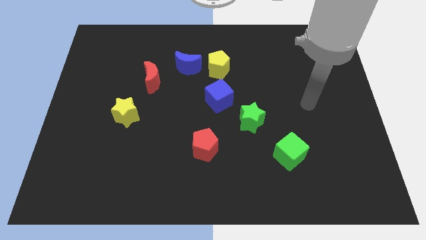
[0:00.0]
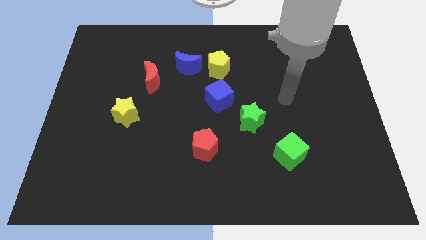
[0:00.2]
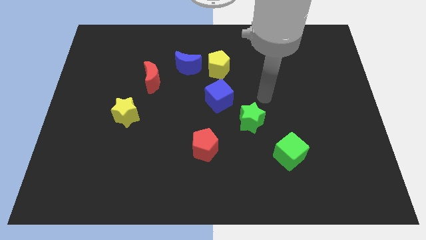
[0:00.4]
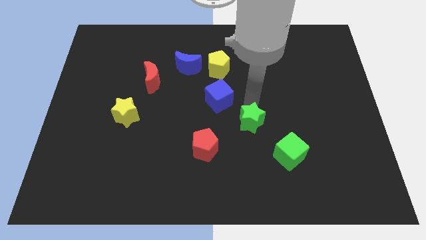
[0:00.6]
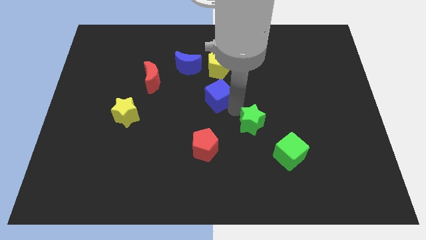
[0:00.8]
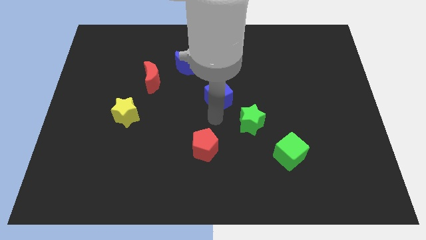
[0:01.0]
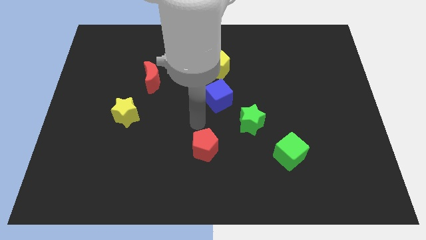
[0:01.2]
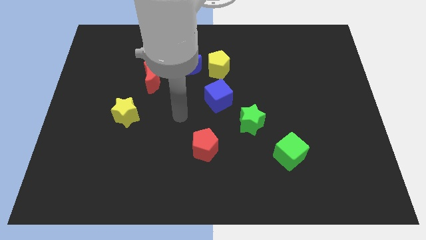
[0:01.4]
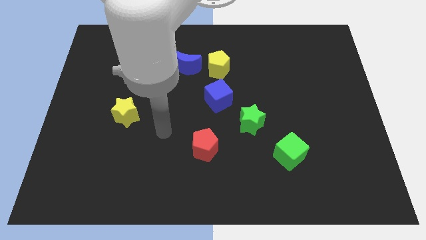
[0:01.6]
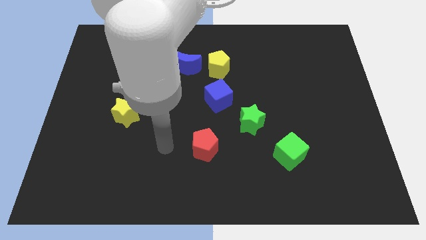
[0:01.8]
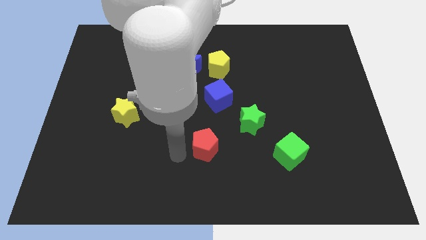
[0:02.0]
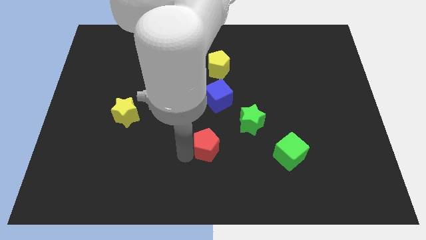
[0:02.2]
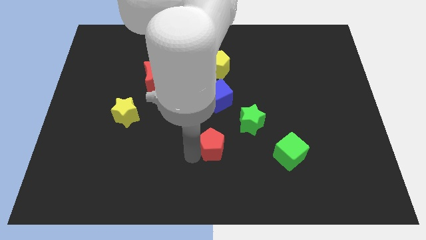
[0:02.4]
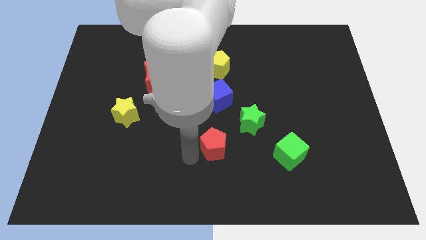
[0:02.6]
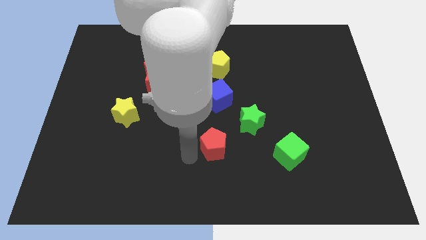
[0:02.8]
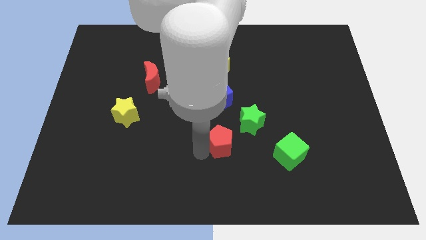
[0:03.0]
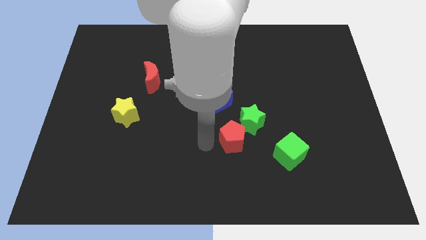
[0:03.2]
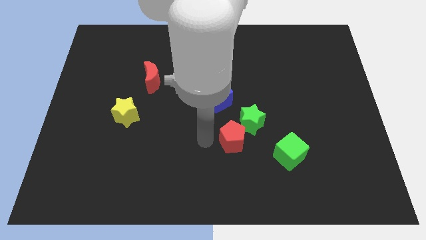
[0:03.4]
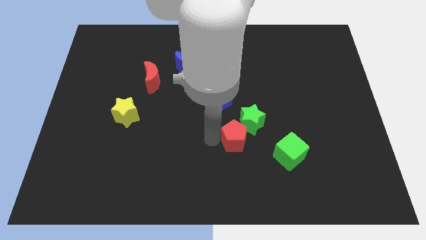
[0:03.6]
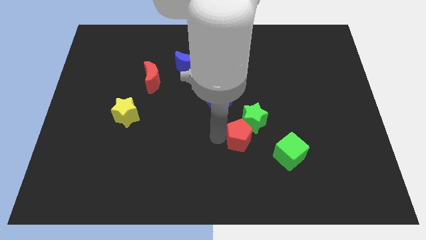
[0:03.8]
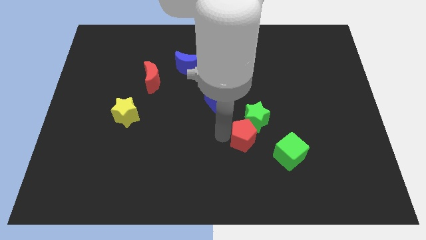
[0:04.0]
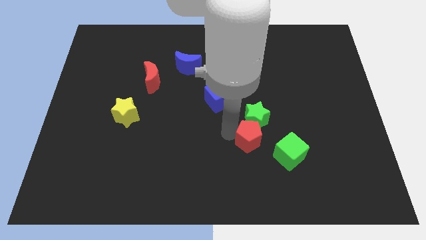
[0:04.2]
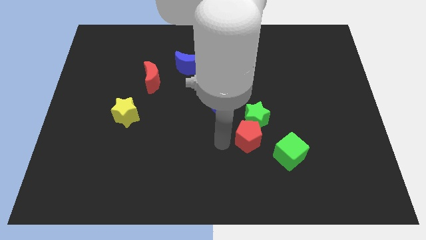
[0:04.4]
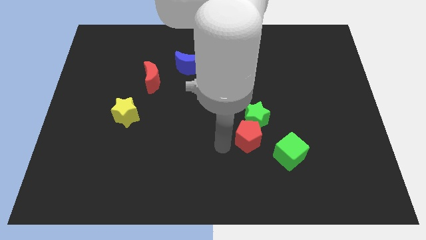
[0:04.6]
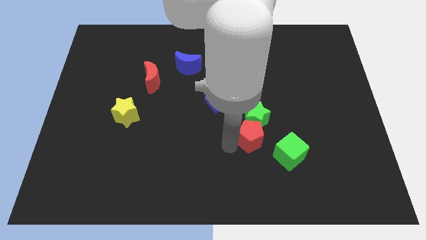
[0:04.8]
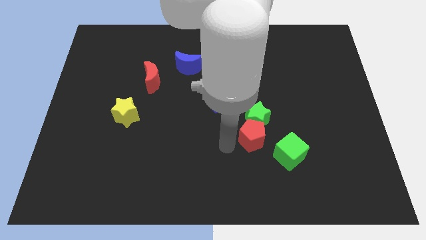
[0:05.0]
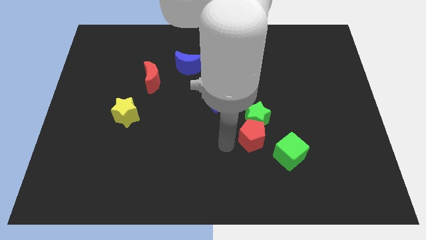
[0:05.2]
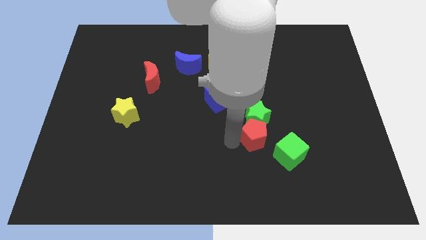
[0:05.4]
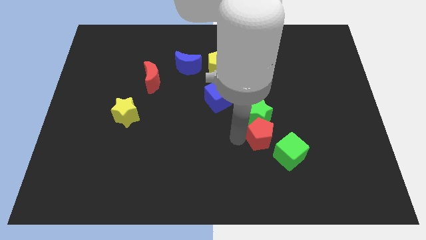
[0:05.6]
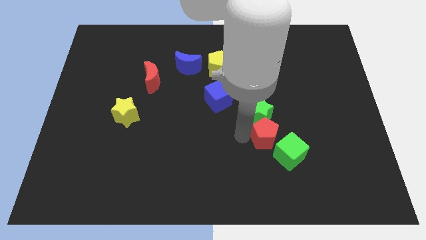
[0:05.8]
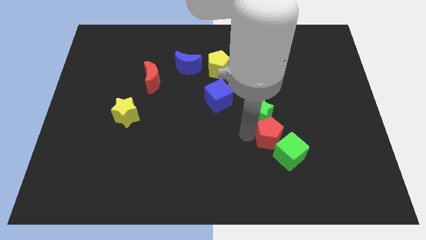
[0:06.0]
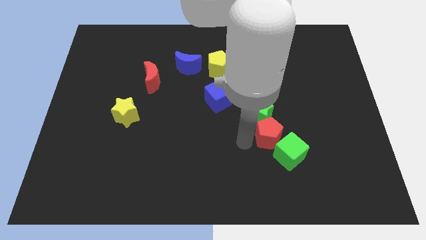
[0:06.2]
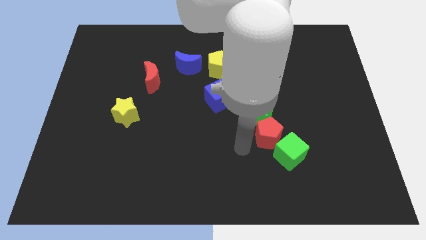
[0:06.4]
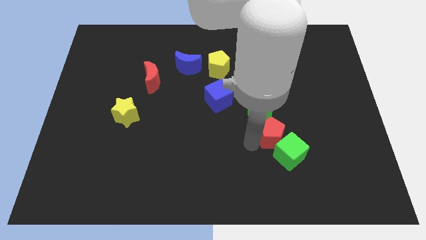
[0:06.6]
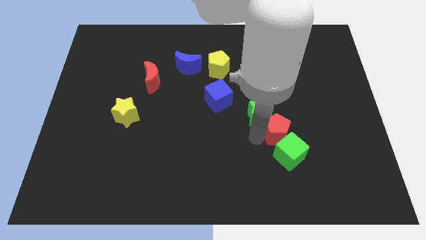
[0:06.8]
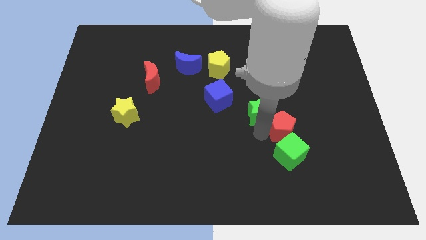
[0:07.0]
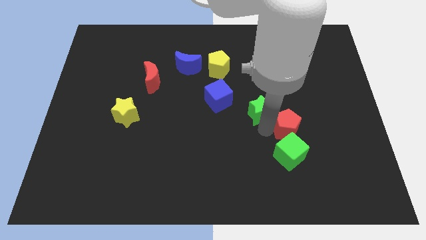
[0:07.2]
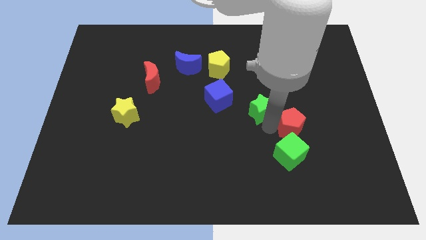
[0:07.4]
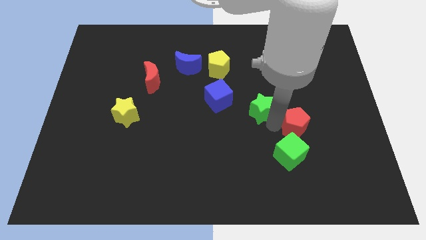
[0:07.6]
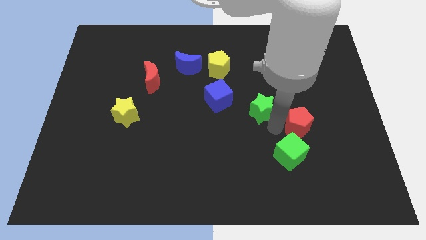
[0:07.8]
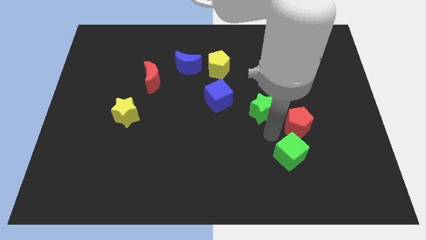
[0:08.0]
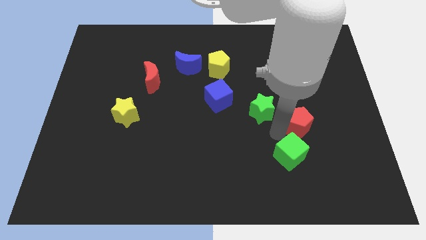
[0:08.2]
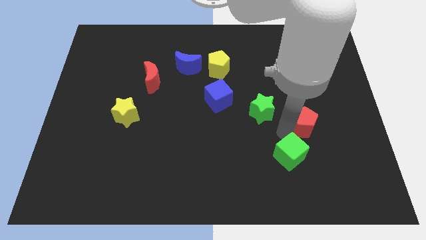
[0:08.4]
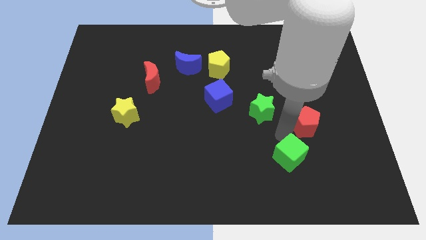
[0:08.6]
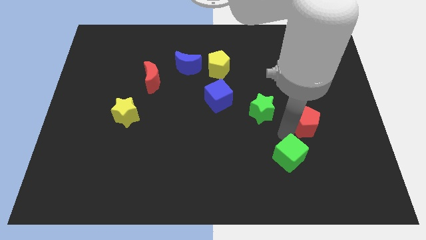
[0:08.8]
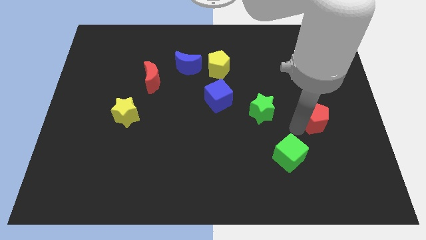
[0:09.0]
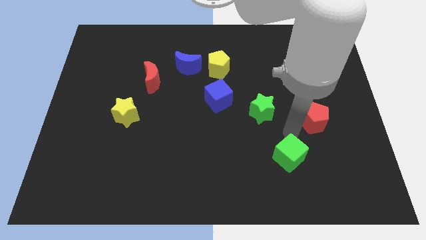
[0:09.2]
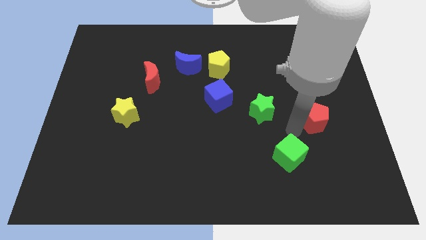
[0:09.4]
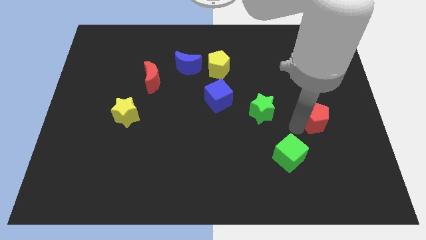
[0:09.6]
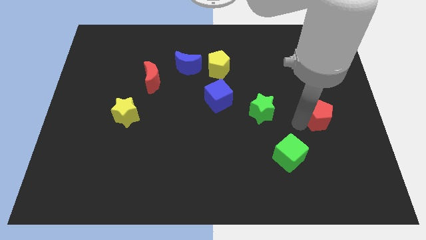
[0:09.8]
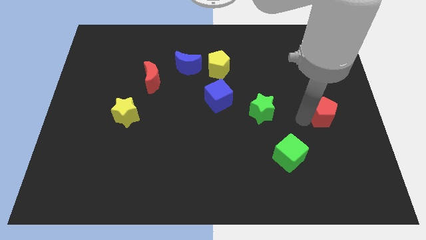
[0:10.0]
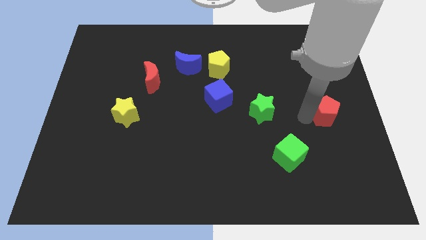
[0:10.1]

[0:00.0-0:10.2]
push the red pentagon to the center right
